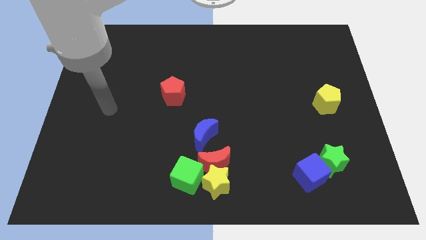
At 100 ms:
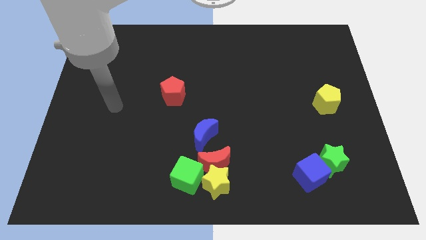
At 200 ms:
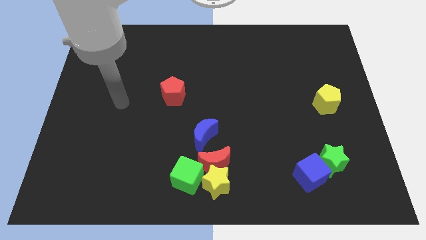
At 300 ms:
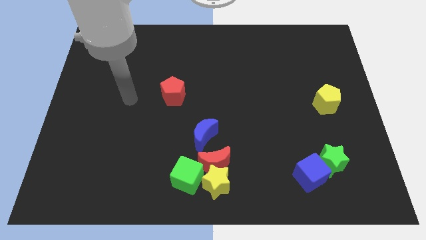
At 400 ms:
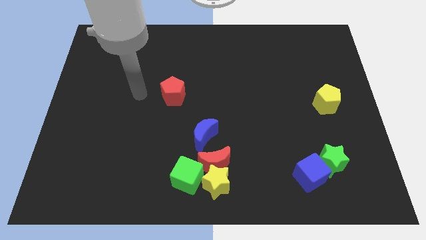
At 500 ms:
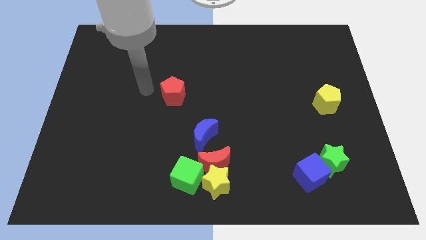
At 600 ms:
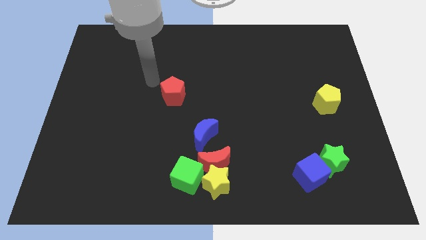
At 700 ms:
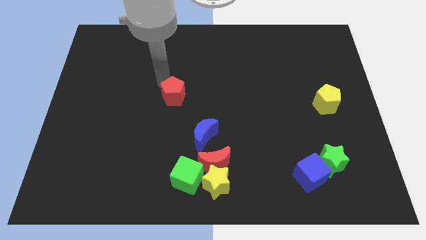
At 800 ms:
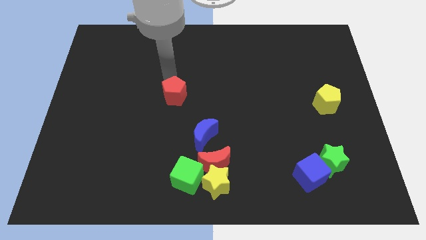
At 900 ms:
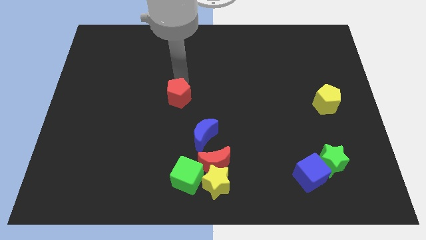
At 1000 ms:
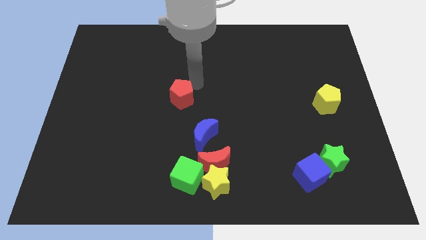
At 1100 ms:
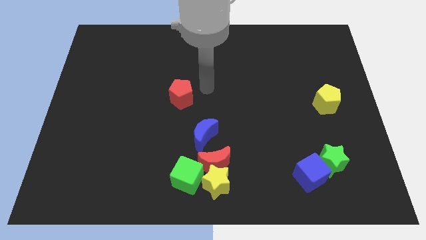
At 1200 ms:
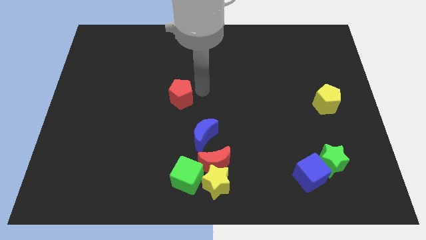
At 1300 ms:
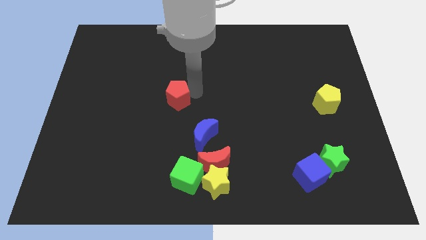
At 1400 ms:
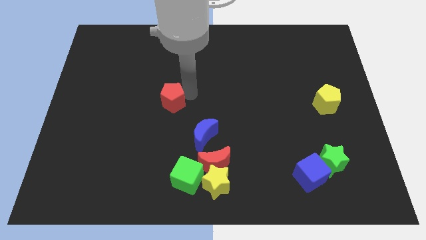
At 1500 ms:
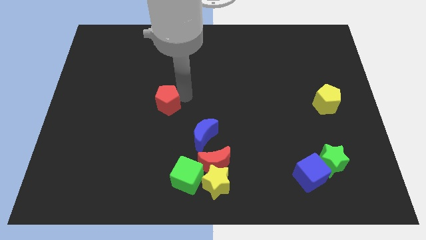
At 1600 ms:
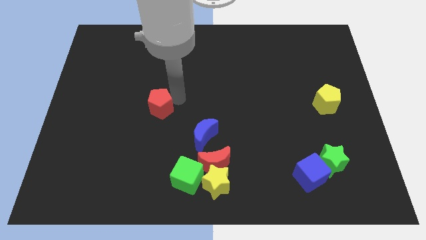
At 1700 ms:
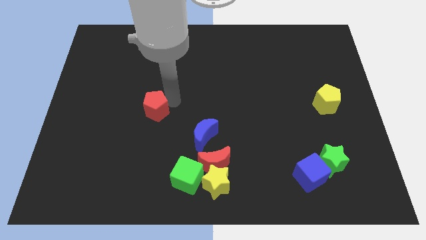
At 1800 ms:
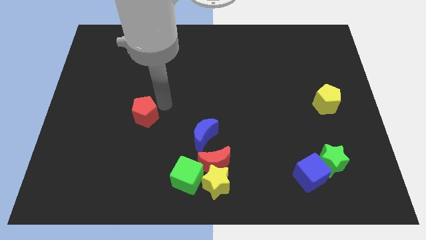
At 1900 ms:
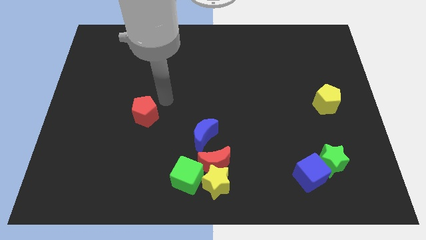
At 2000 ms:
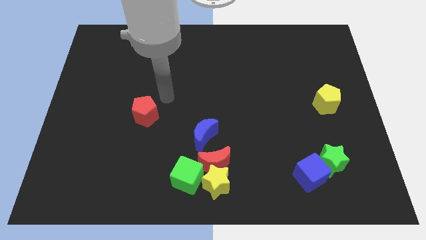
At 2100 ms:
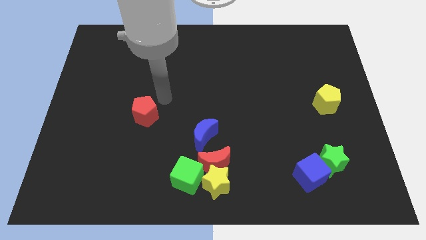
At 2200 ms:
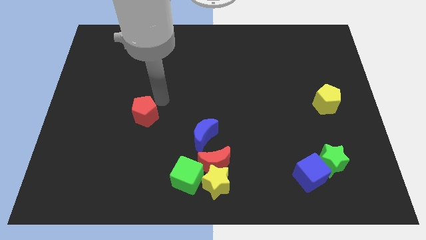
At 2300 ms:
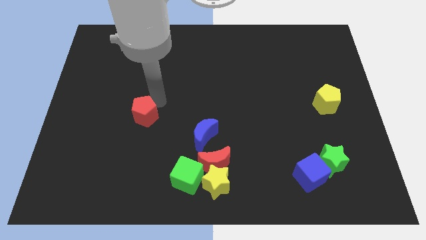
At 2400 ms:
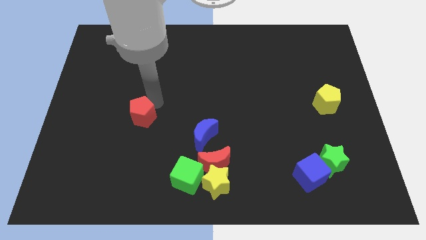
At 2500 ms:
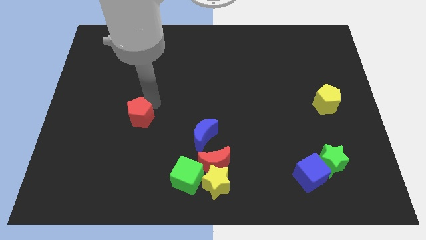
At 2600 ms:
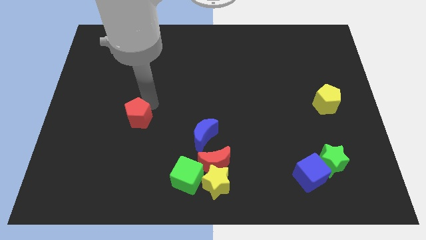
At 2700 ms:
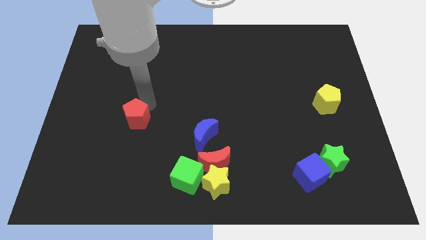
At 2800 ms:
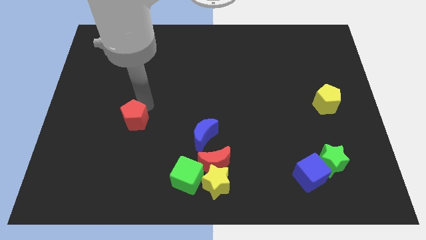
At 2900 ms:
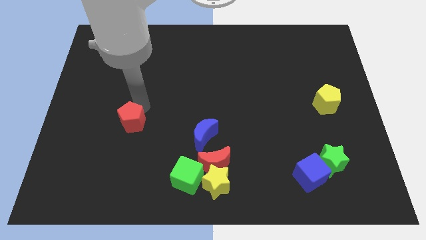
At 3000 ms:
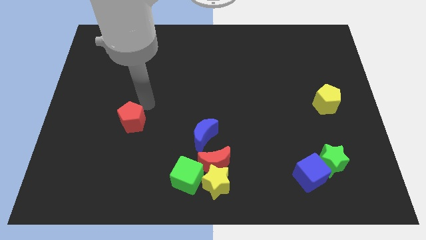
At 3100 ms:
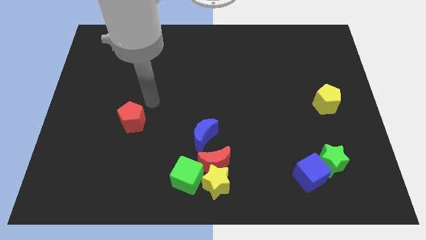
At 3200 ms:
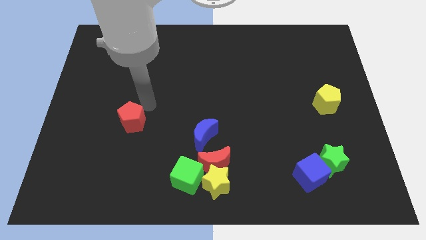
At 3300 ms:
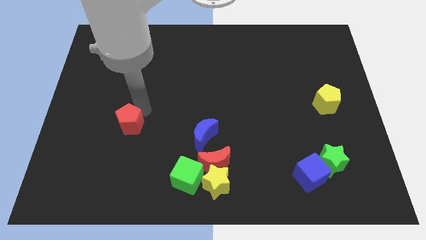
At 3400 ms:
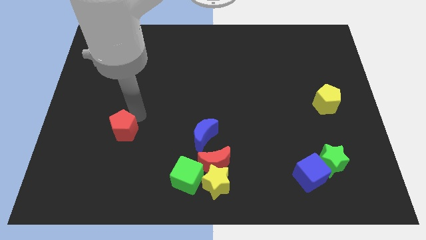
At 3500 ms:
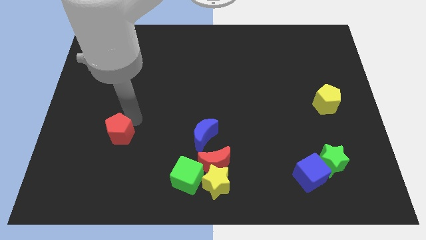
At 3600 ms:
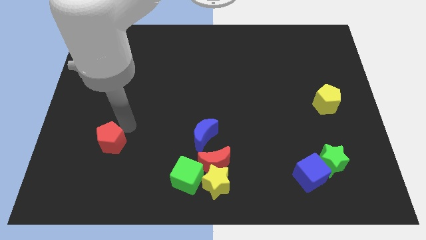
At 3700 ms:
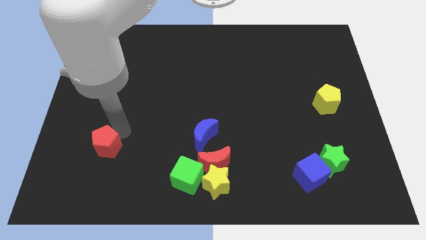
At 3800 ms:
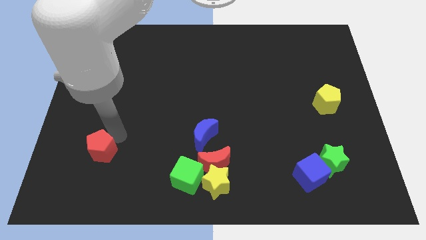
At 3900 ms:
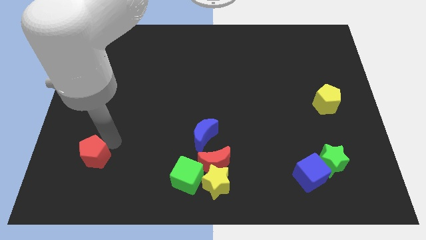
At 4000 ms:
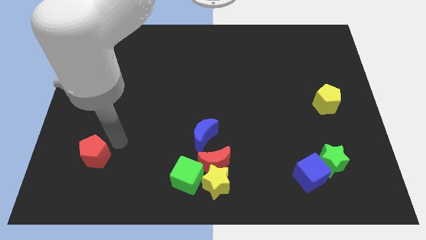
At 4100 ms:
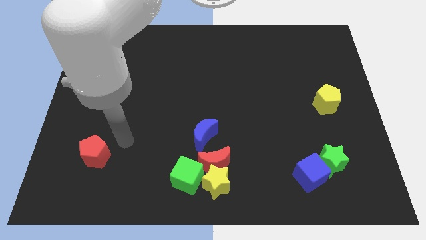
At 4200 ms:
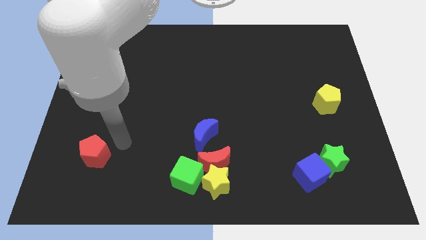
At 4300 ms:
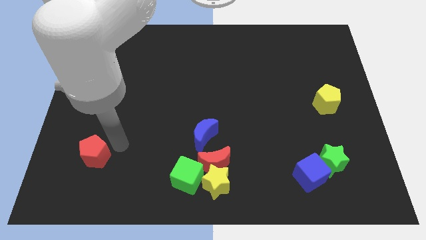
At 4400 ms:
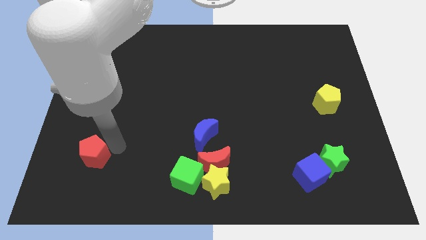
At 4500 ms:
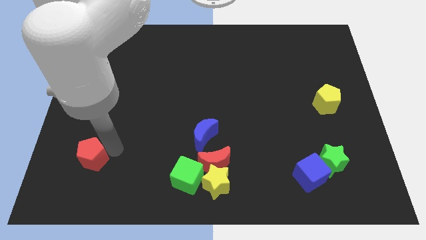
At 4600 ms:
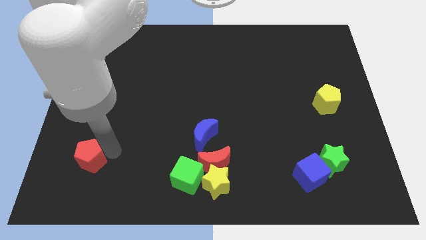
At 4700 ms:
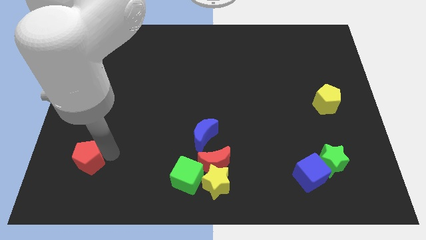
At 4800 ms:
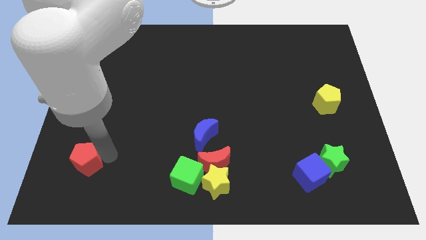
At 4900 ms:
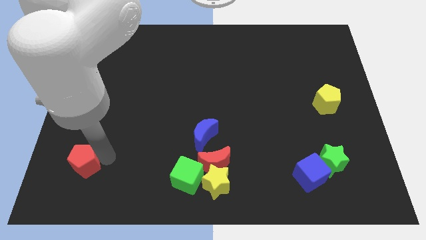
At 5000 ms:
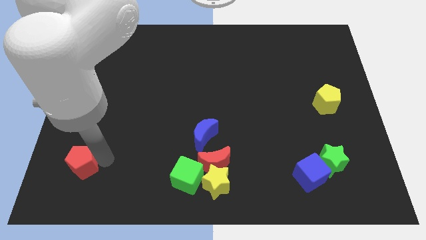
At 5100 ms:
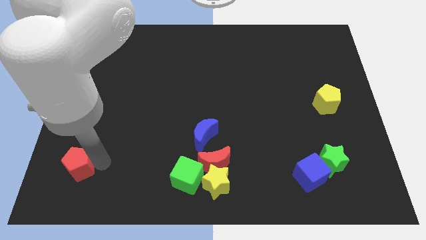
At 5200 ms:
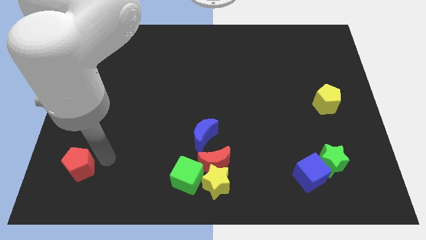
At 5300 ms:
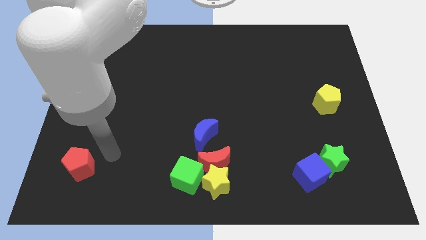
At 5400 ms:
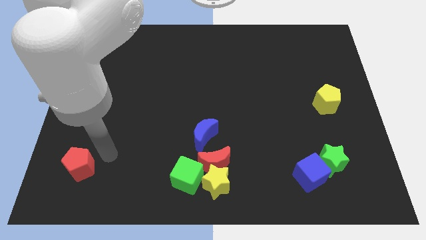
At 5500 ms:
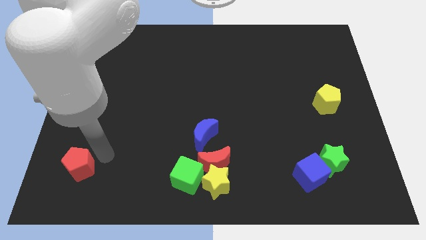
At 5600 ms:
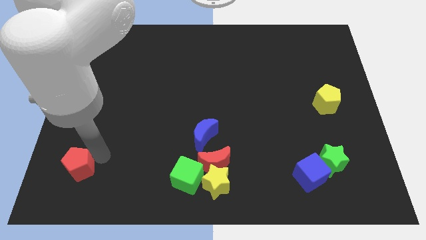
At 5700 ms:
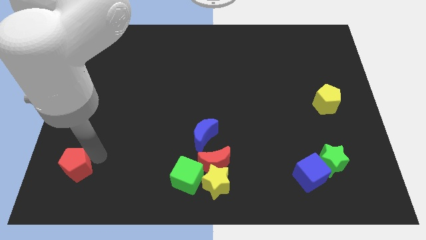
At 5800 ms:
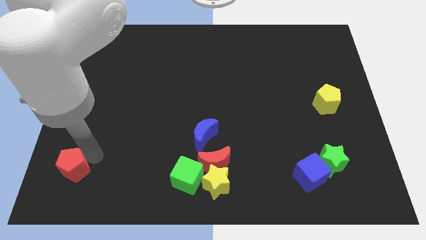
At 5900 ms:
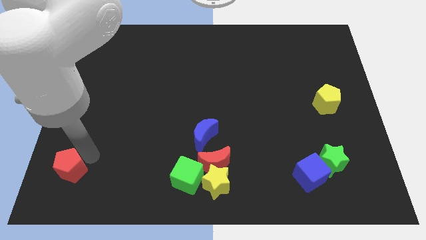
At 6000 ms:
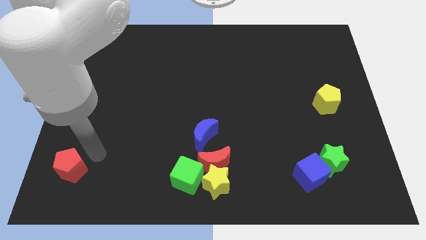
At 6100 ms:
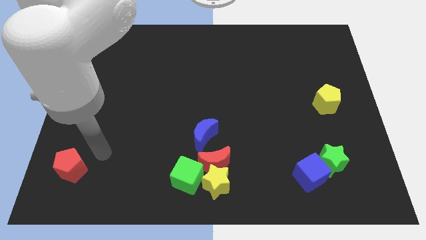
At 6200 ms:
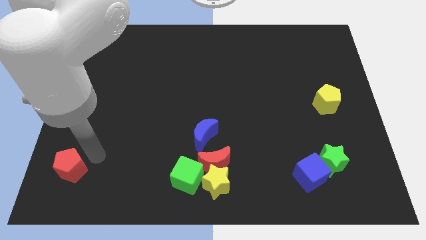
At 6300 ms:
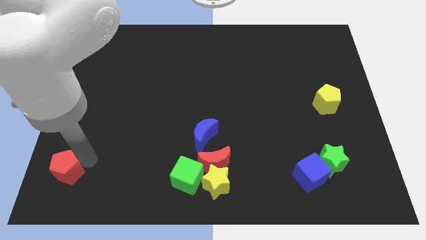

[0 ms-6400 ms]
slide the red pentagon to the lower left corner

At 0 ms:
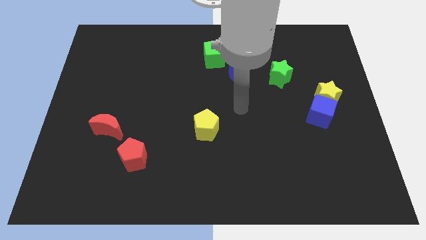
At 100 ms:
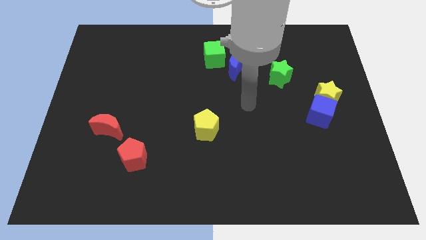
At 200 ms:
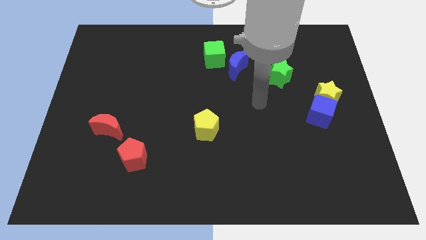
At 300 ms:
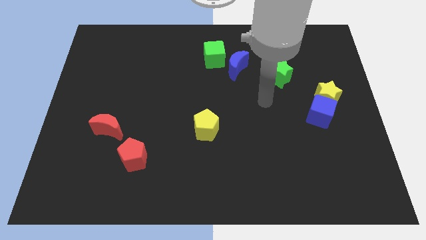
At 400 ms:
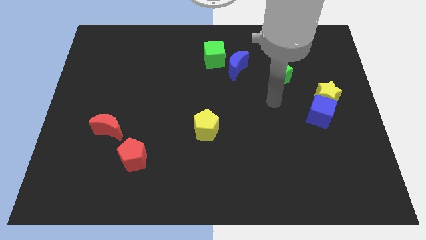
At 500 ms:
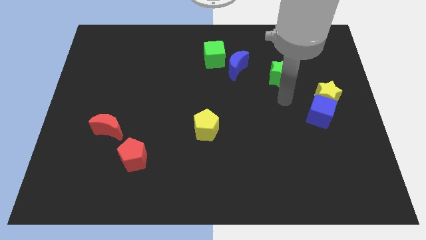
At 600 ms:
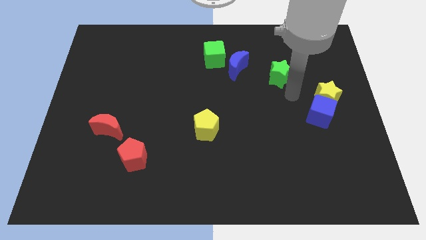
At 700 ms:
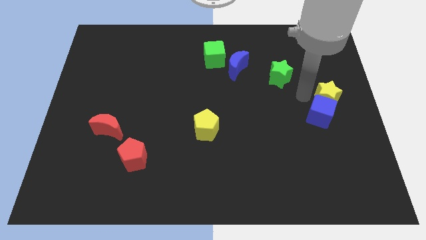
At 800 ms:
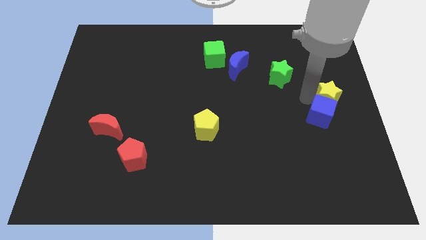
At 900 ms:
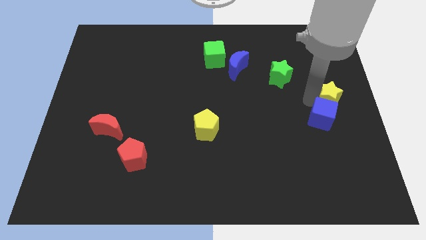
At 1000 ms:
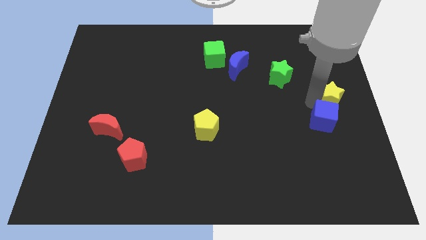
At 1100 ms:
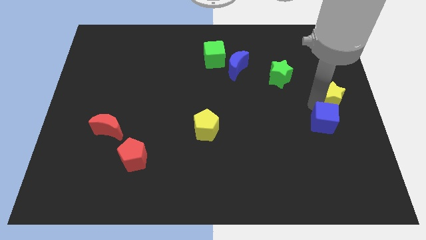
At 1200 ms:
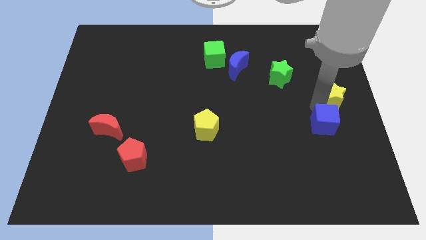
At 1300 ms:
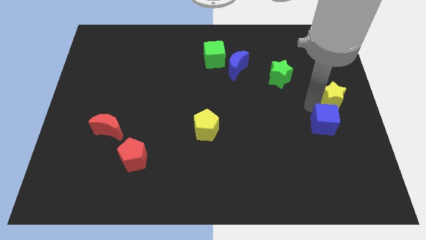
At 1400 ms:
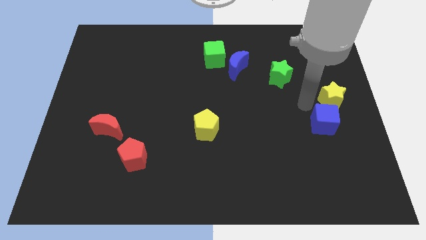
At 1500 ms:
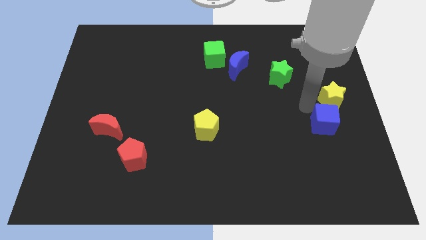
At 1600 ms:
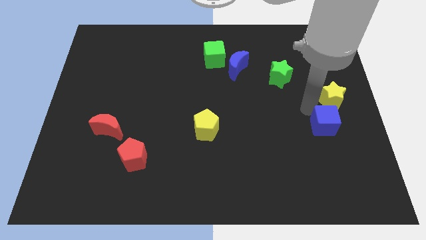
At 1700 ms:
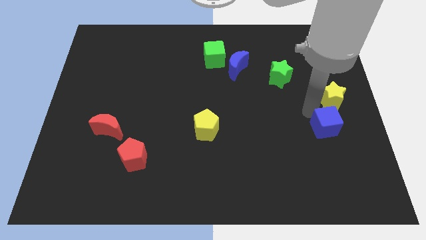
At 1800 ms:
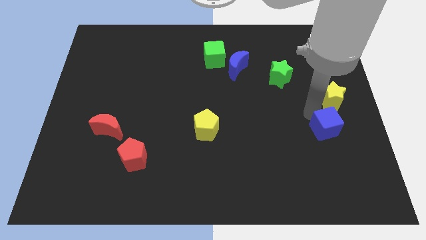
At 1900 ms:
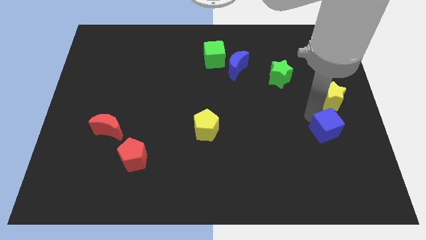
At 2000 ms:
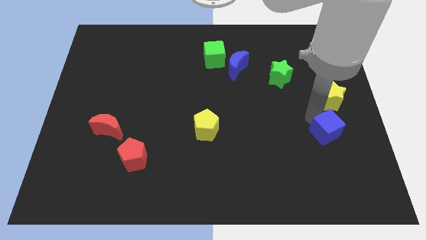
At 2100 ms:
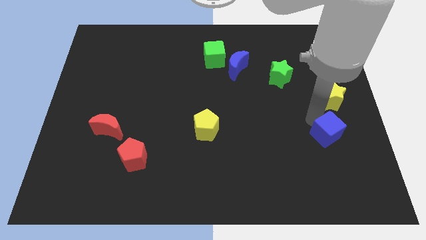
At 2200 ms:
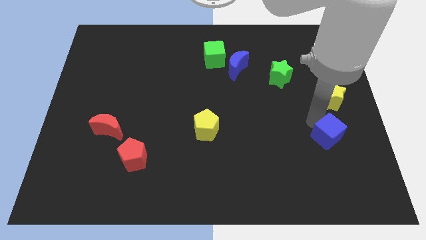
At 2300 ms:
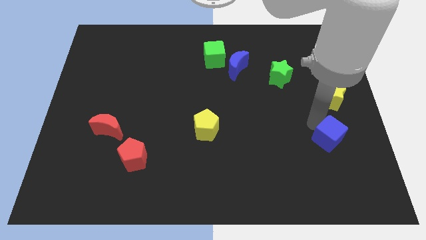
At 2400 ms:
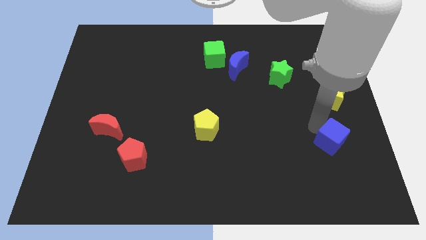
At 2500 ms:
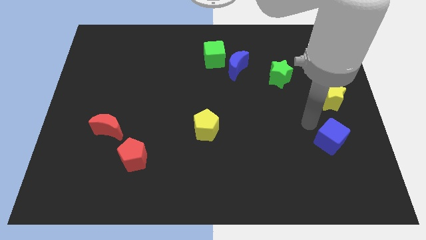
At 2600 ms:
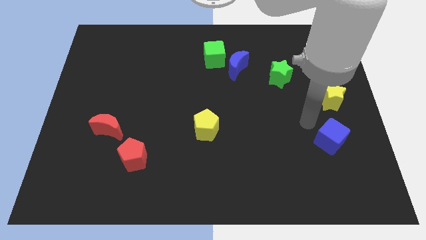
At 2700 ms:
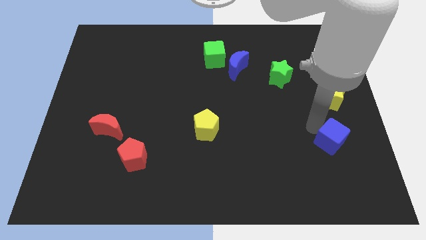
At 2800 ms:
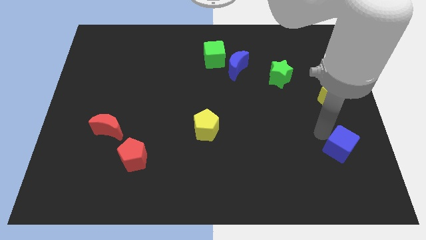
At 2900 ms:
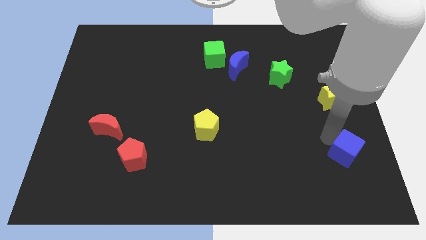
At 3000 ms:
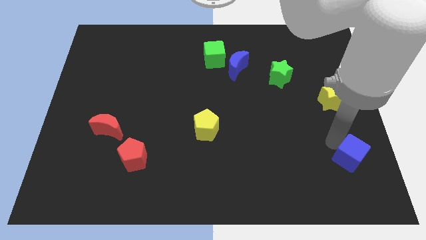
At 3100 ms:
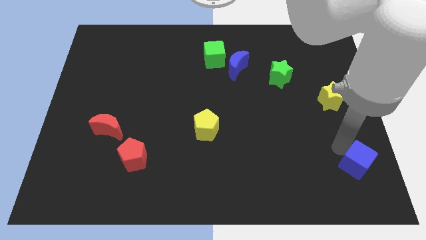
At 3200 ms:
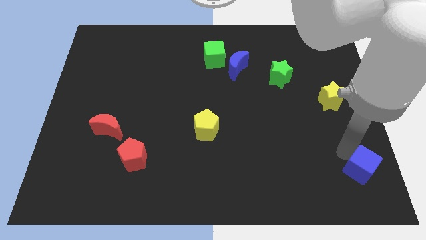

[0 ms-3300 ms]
slide the blue cube to the bottom right of the board
